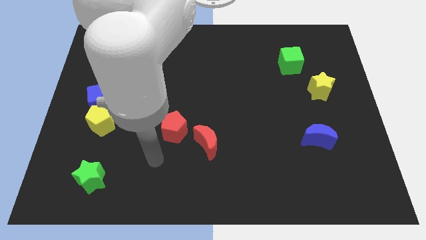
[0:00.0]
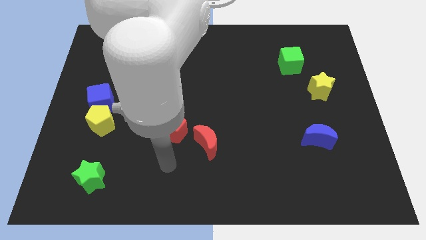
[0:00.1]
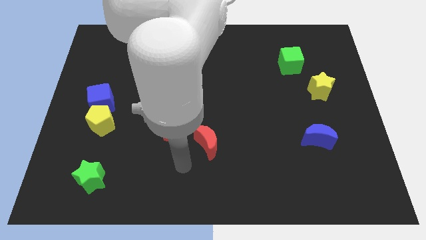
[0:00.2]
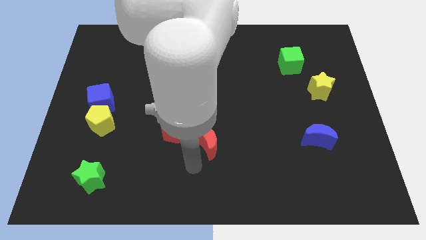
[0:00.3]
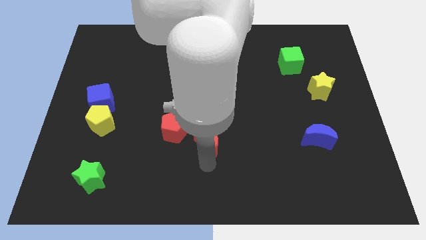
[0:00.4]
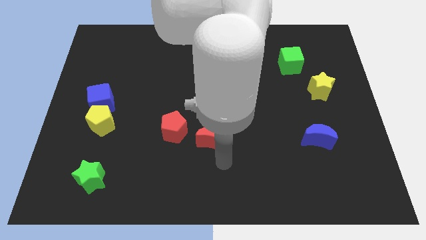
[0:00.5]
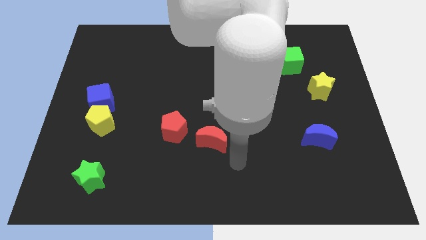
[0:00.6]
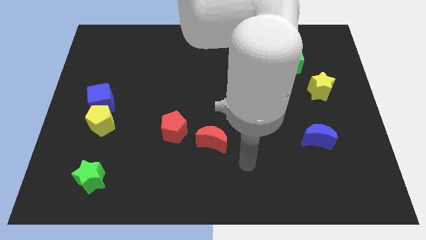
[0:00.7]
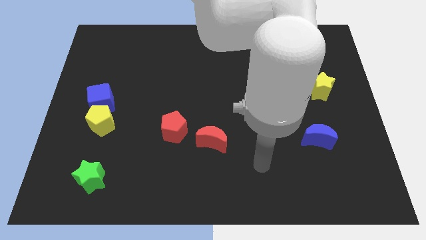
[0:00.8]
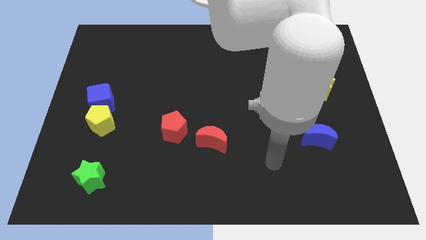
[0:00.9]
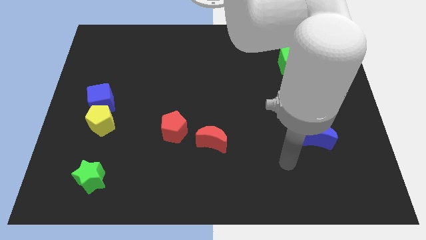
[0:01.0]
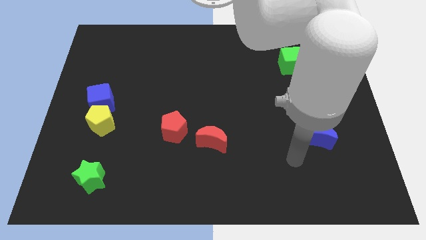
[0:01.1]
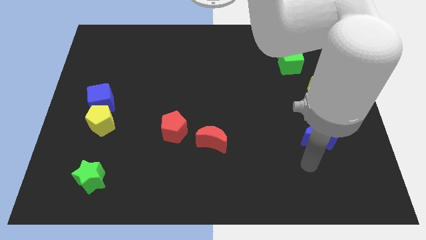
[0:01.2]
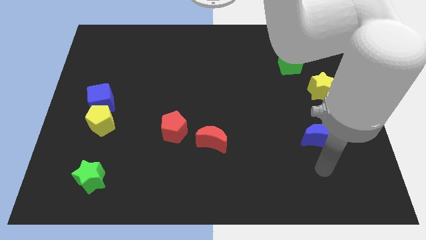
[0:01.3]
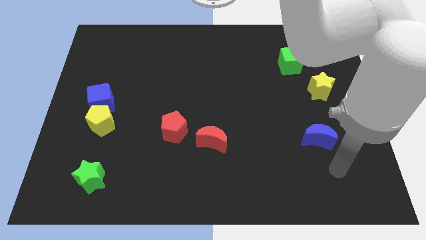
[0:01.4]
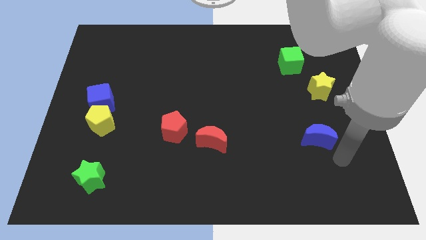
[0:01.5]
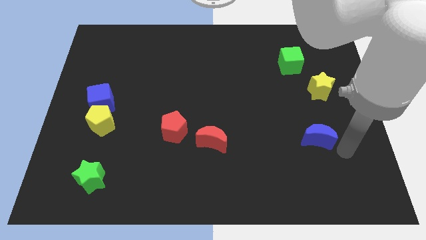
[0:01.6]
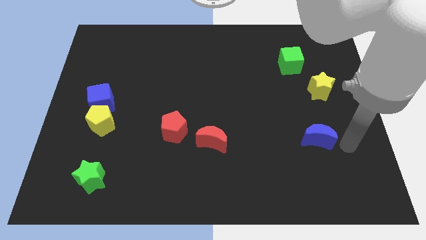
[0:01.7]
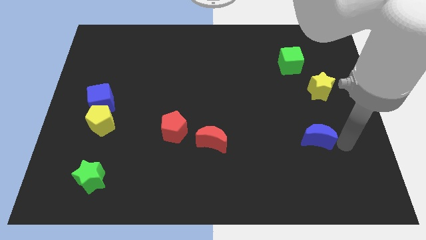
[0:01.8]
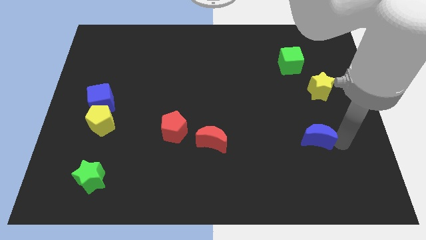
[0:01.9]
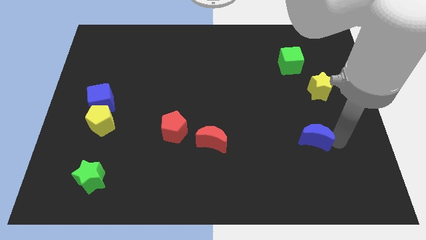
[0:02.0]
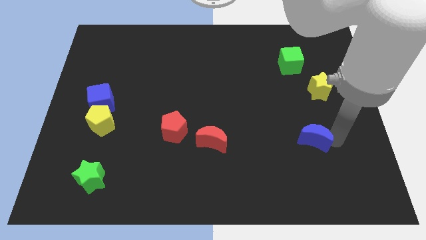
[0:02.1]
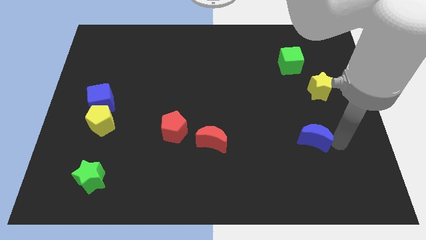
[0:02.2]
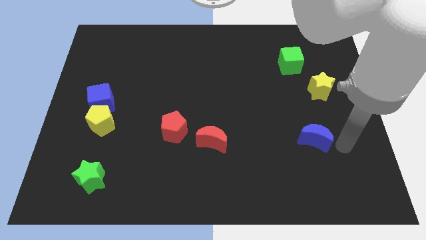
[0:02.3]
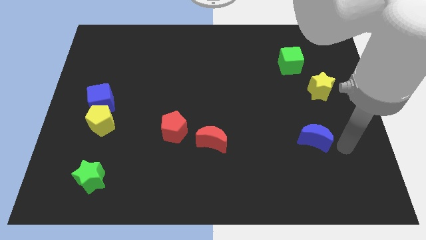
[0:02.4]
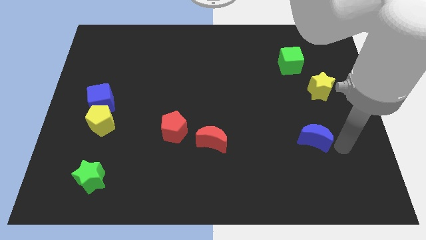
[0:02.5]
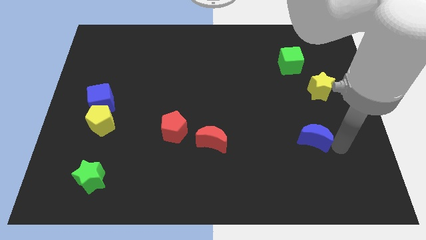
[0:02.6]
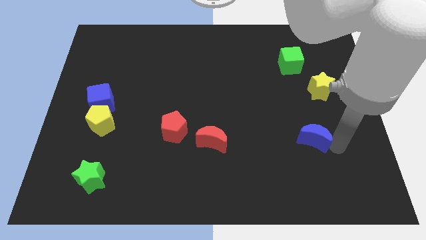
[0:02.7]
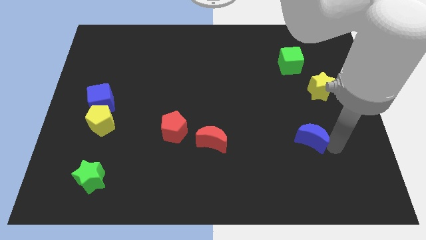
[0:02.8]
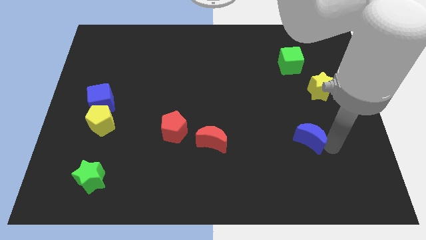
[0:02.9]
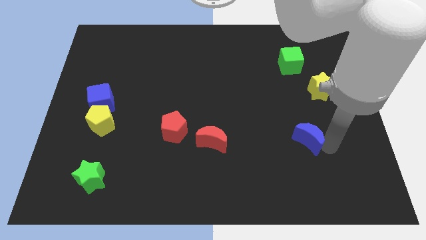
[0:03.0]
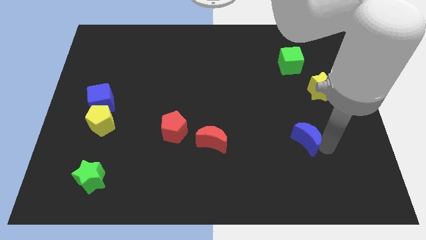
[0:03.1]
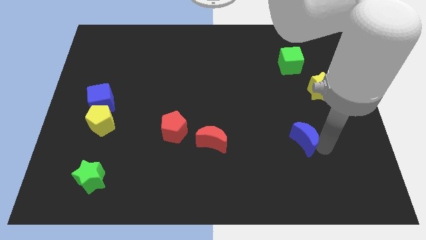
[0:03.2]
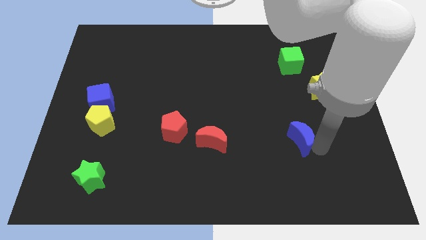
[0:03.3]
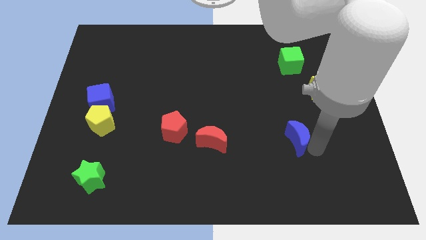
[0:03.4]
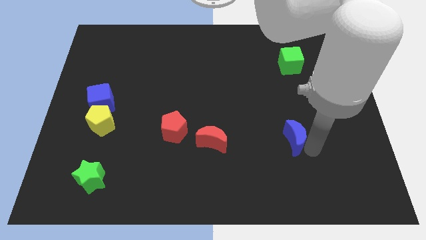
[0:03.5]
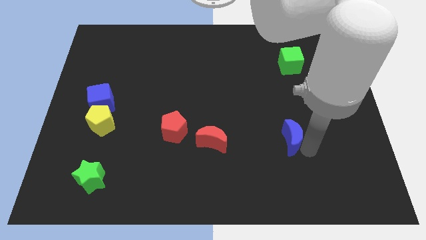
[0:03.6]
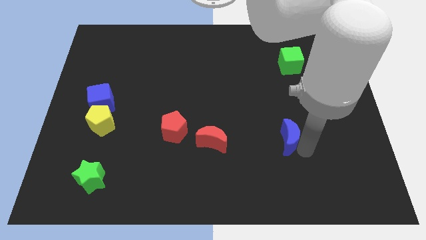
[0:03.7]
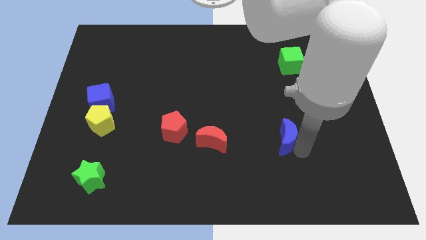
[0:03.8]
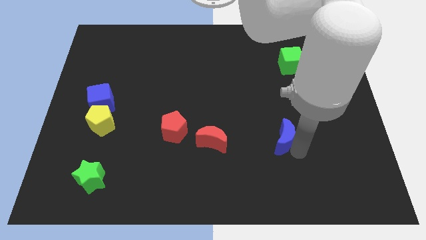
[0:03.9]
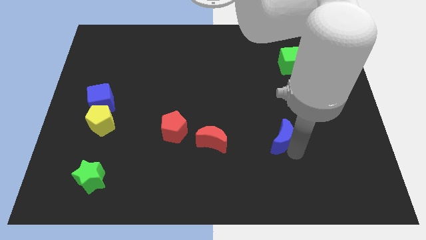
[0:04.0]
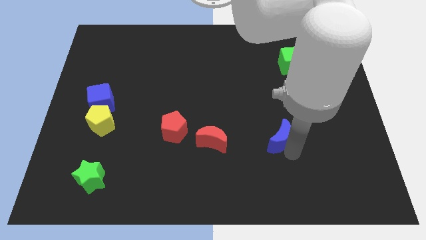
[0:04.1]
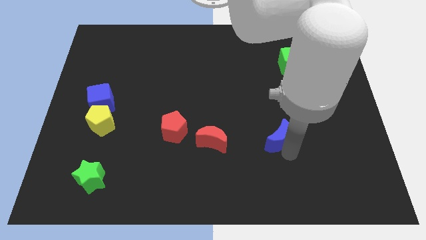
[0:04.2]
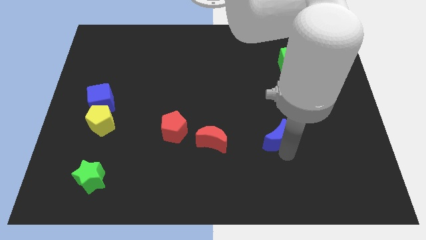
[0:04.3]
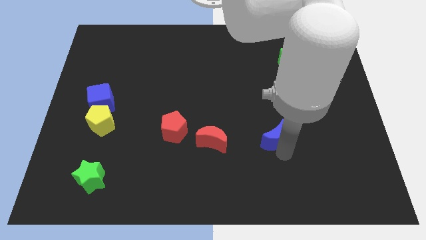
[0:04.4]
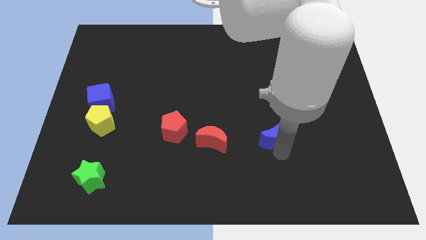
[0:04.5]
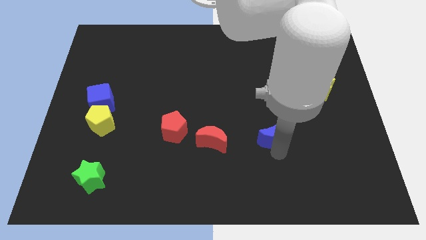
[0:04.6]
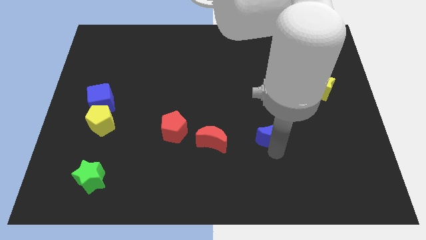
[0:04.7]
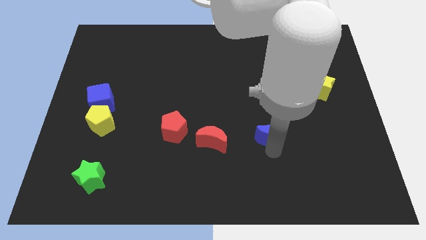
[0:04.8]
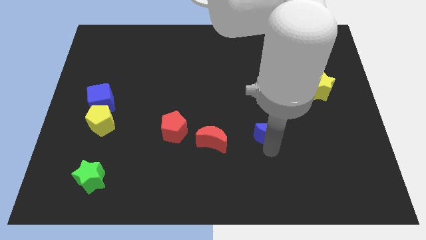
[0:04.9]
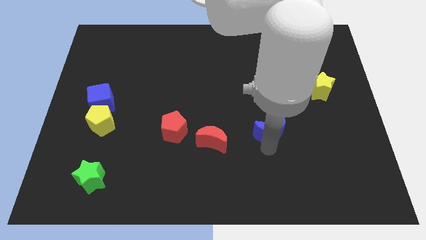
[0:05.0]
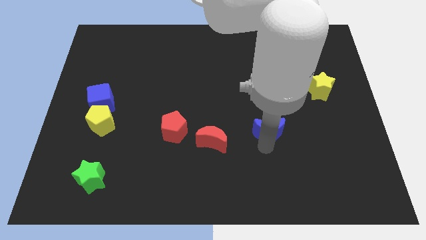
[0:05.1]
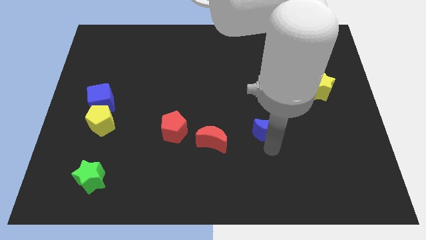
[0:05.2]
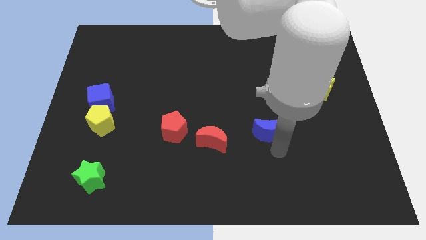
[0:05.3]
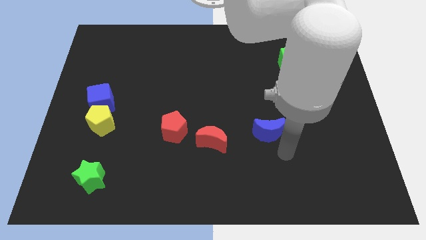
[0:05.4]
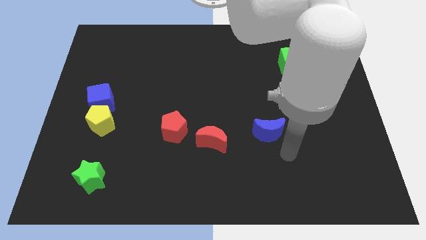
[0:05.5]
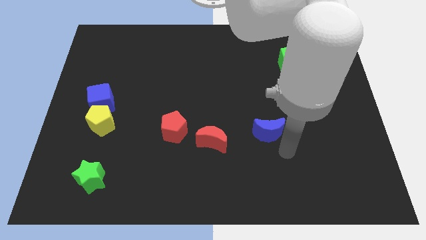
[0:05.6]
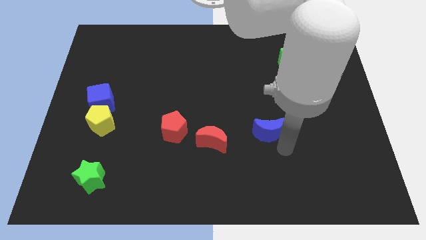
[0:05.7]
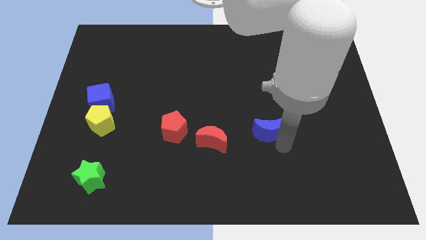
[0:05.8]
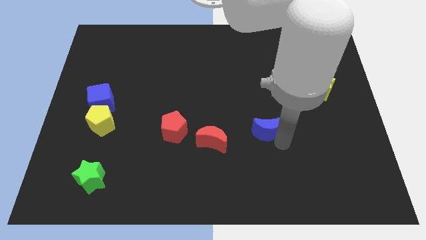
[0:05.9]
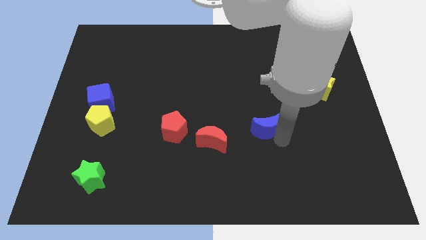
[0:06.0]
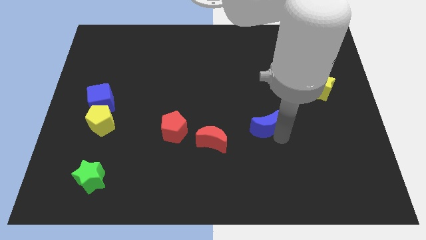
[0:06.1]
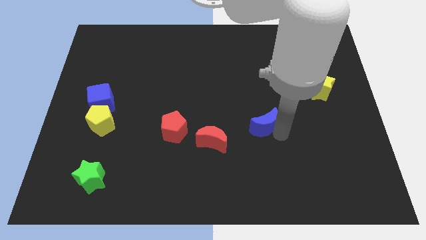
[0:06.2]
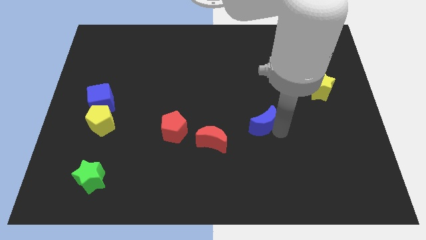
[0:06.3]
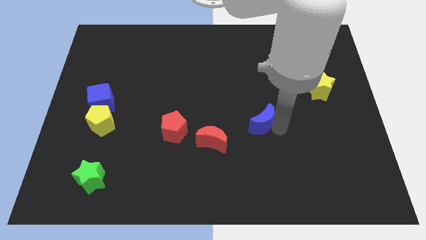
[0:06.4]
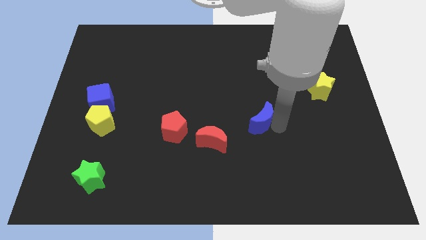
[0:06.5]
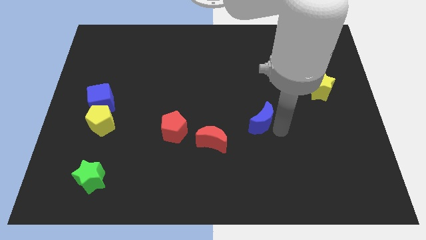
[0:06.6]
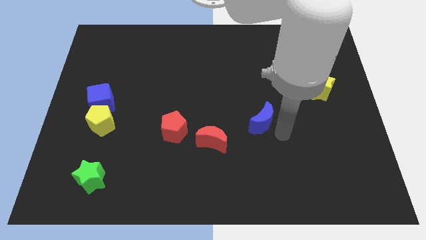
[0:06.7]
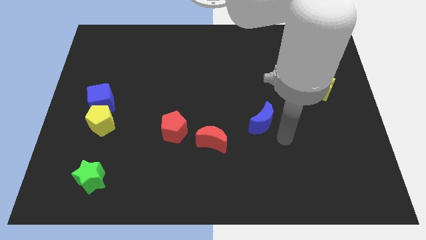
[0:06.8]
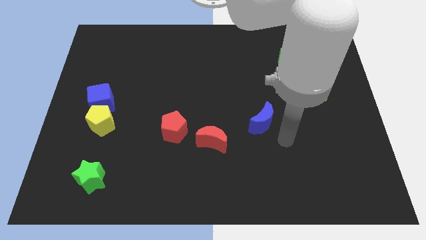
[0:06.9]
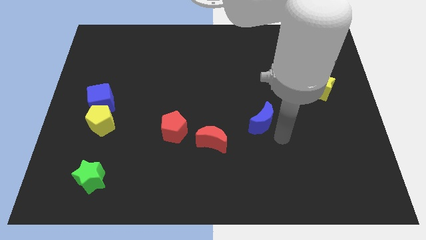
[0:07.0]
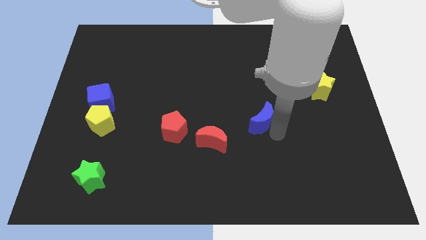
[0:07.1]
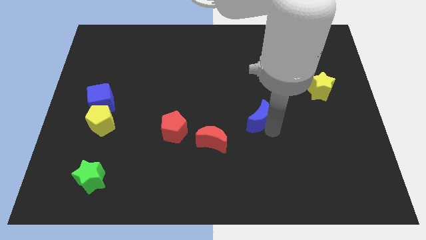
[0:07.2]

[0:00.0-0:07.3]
slide the blue moon to the middle
